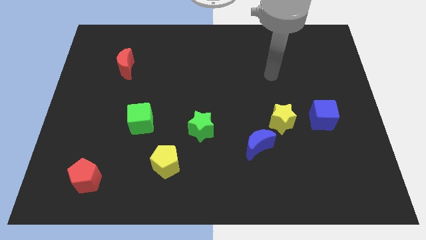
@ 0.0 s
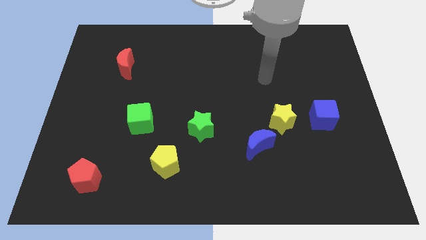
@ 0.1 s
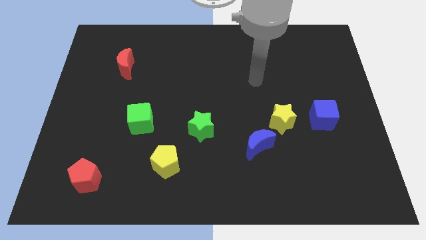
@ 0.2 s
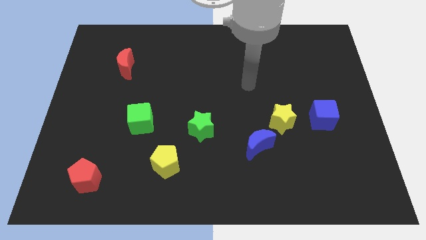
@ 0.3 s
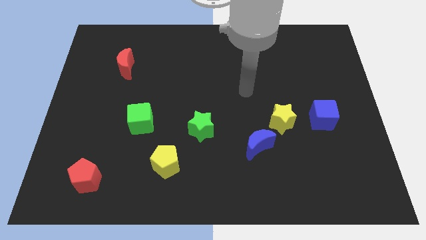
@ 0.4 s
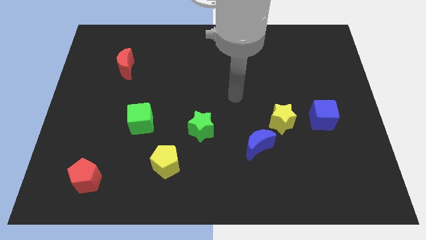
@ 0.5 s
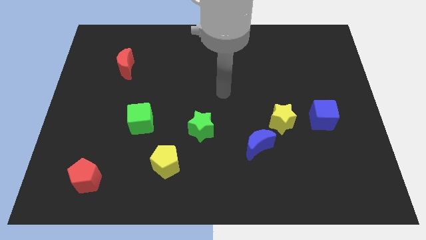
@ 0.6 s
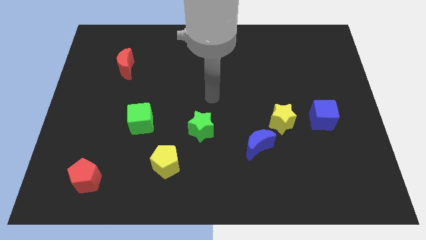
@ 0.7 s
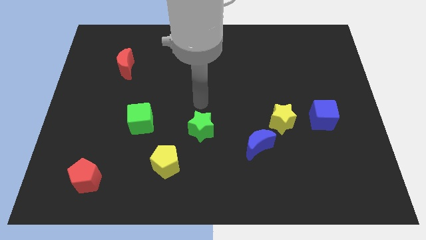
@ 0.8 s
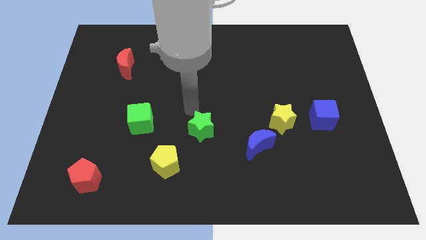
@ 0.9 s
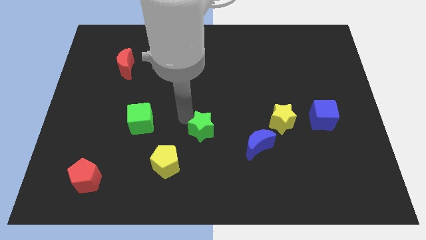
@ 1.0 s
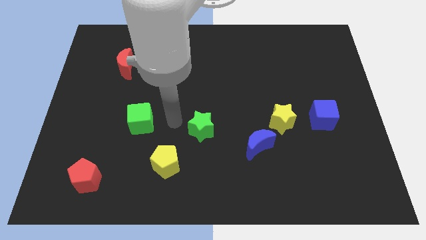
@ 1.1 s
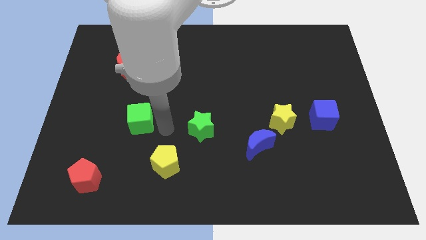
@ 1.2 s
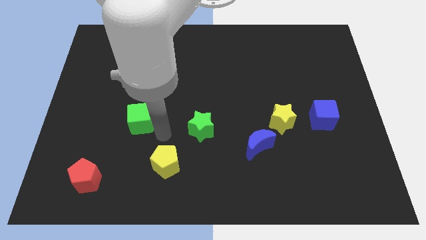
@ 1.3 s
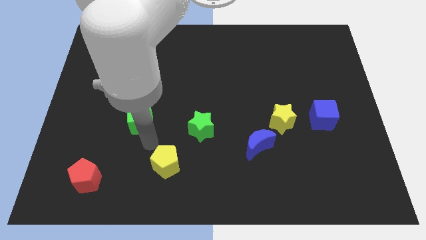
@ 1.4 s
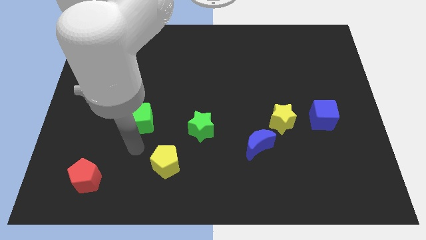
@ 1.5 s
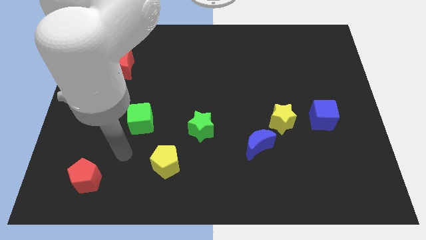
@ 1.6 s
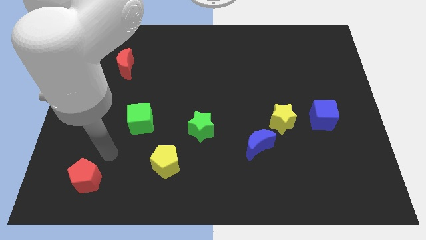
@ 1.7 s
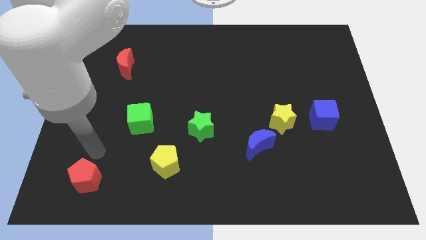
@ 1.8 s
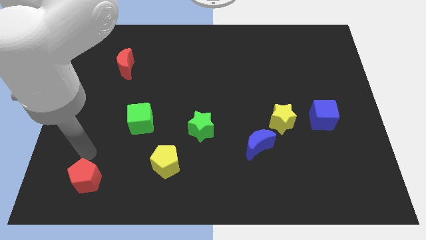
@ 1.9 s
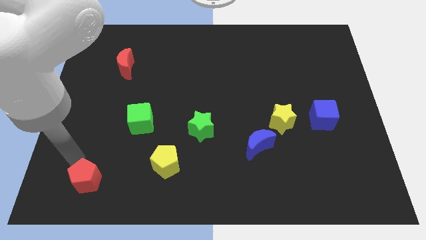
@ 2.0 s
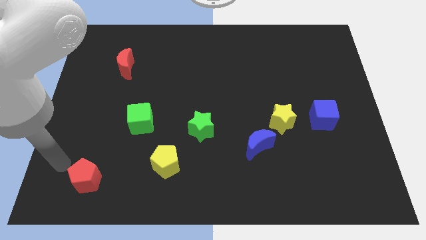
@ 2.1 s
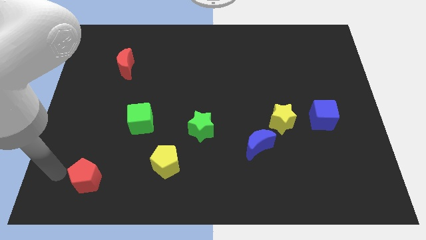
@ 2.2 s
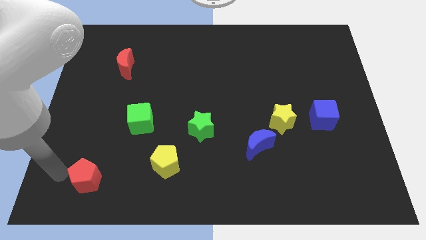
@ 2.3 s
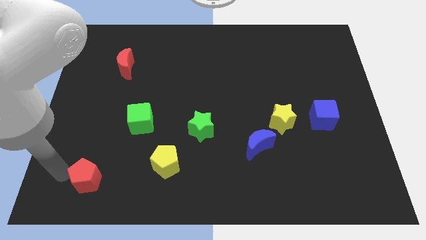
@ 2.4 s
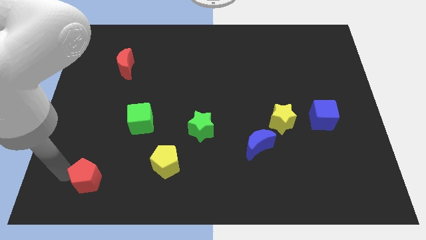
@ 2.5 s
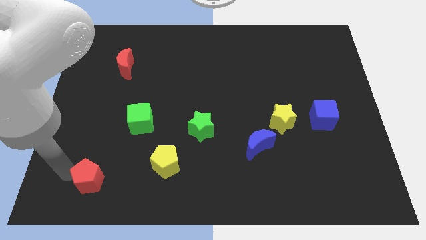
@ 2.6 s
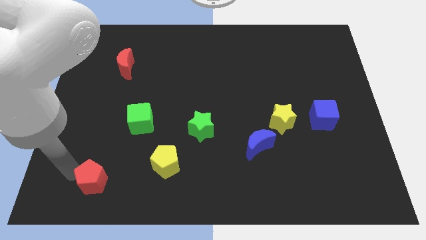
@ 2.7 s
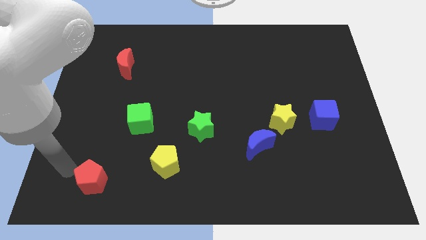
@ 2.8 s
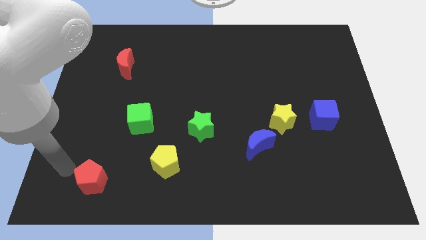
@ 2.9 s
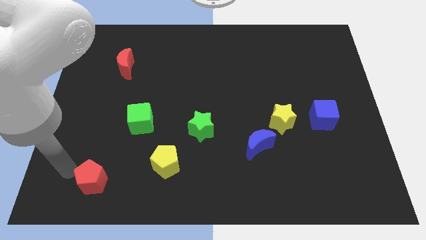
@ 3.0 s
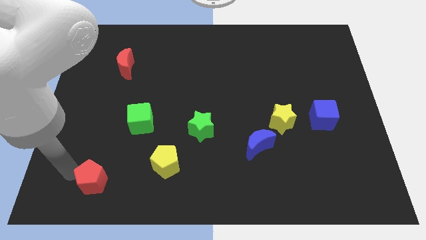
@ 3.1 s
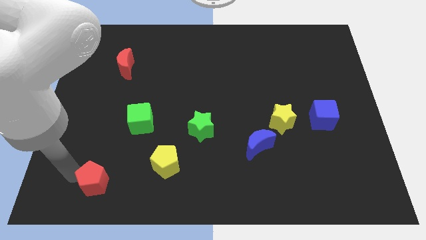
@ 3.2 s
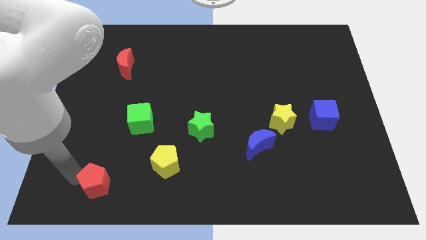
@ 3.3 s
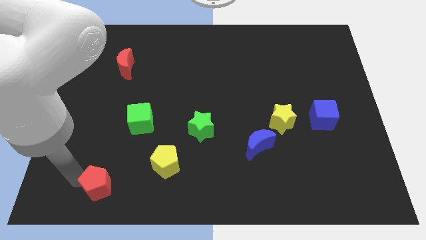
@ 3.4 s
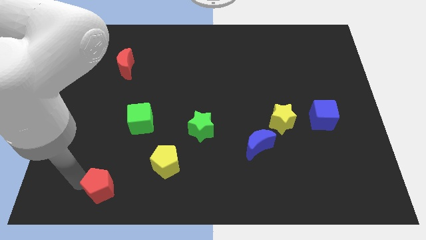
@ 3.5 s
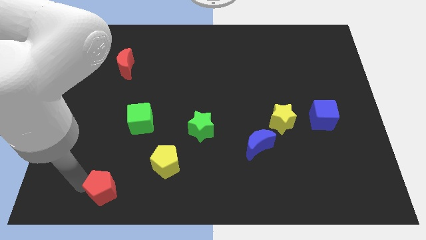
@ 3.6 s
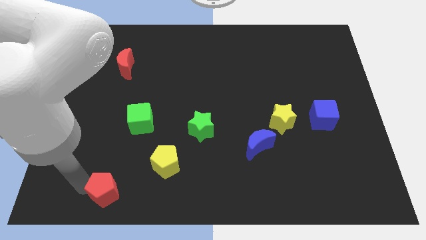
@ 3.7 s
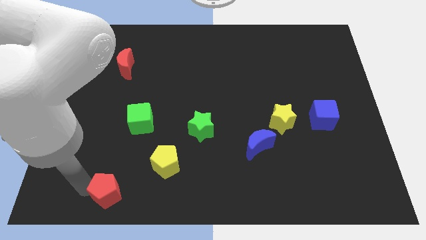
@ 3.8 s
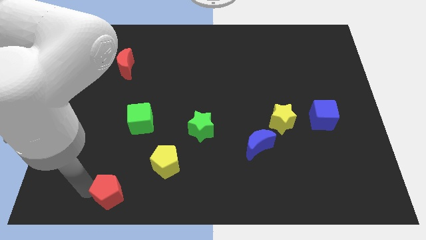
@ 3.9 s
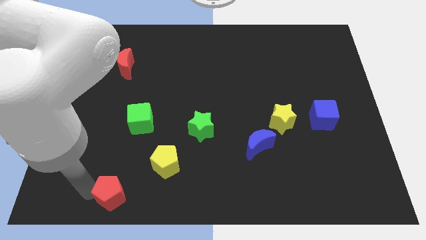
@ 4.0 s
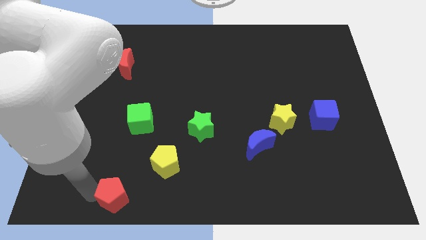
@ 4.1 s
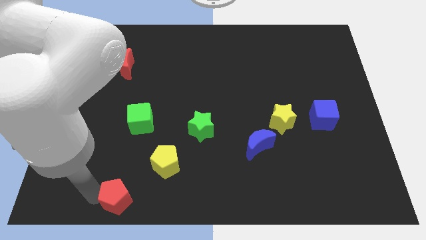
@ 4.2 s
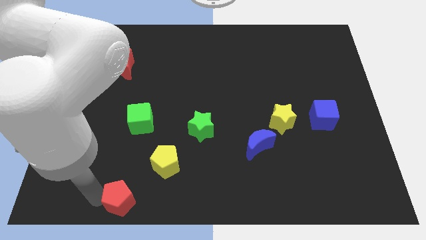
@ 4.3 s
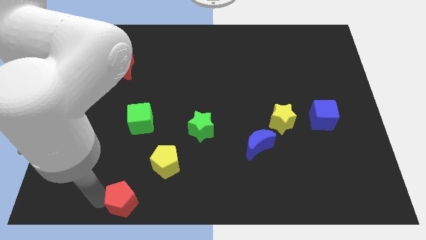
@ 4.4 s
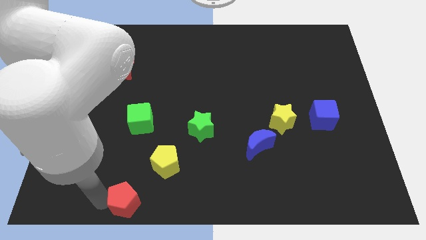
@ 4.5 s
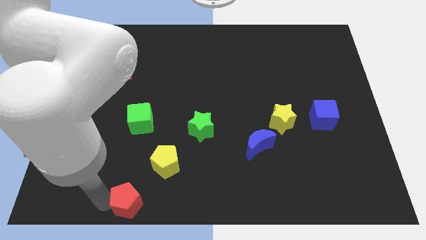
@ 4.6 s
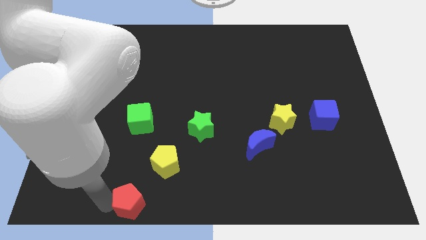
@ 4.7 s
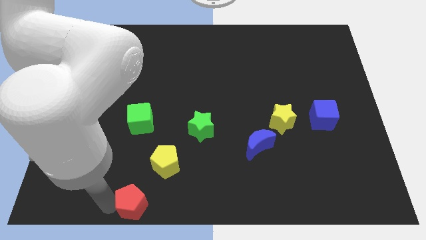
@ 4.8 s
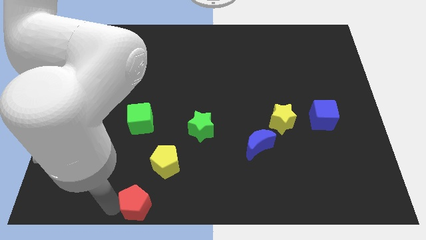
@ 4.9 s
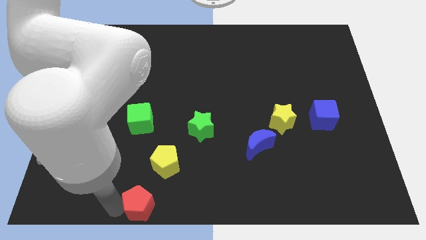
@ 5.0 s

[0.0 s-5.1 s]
slide the red pentagon to the bottom

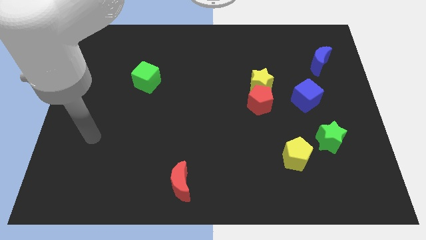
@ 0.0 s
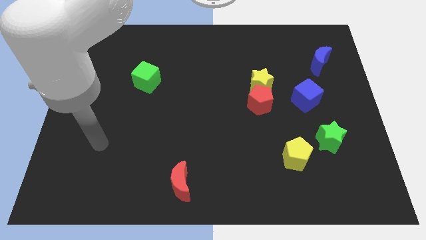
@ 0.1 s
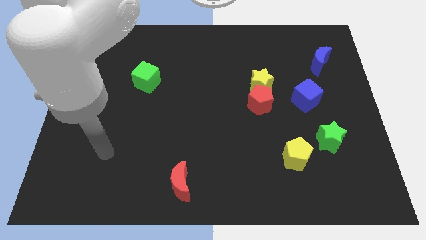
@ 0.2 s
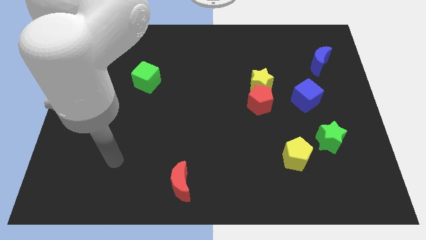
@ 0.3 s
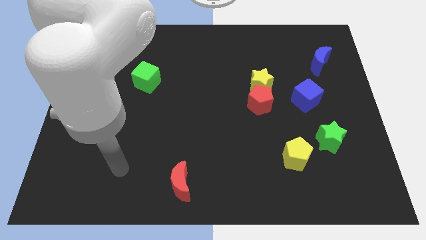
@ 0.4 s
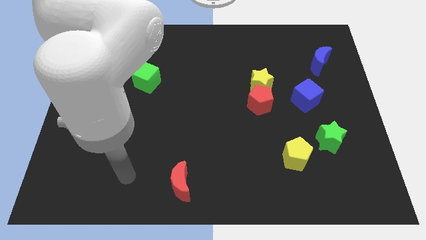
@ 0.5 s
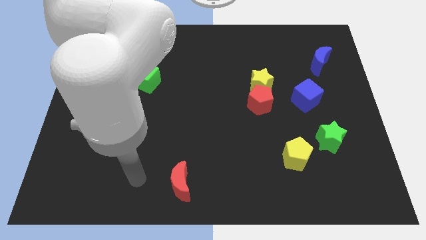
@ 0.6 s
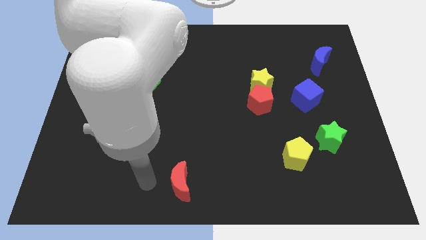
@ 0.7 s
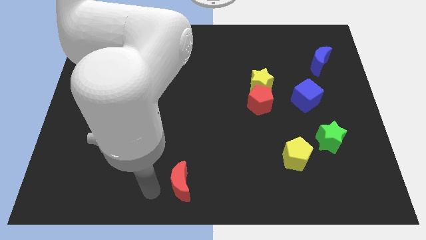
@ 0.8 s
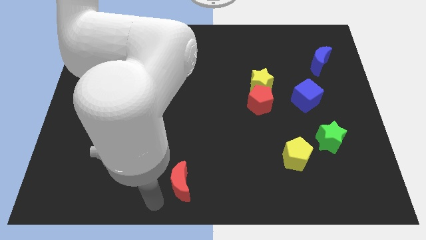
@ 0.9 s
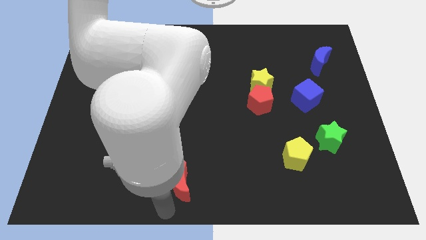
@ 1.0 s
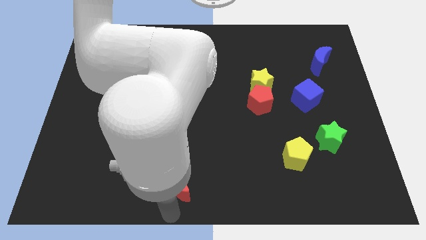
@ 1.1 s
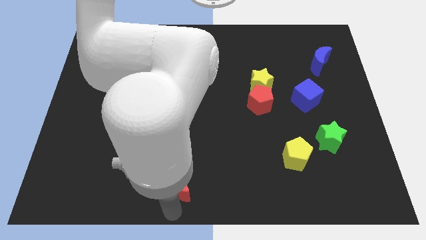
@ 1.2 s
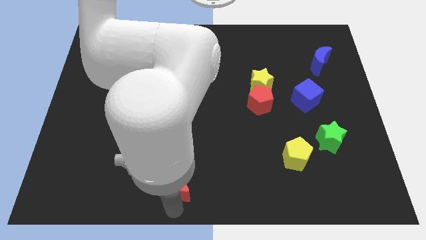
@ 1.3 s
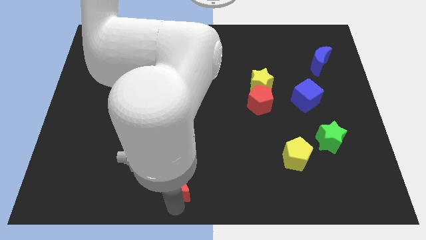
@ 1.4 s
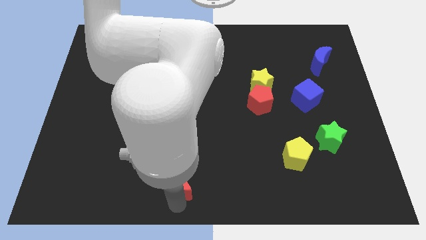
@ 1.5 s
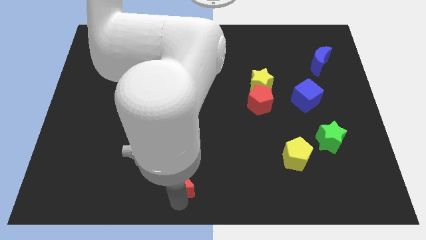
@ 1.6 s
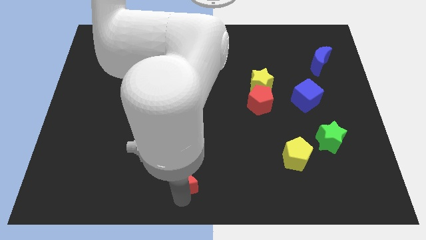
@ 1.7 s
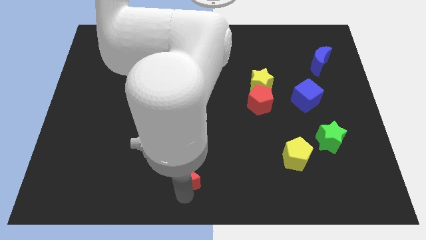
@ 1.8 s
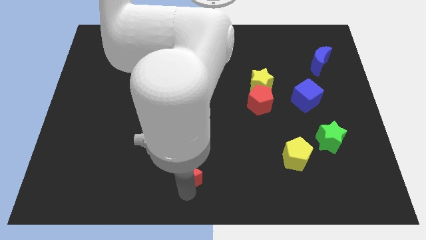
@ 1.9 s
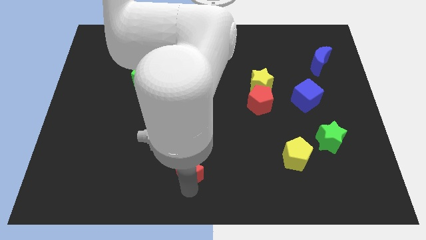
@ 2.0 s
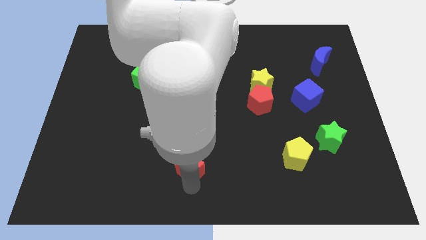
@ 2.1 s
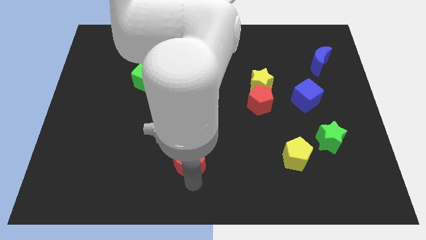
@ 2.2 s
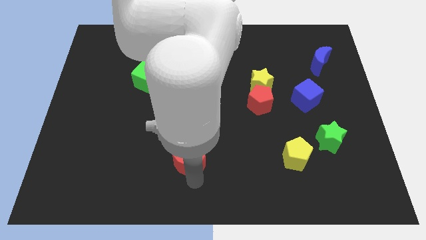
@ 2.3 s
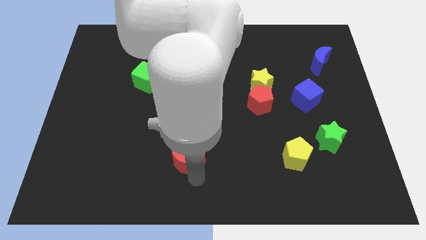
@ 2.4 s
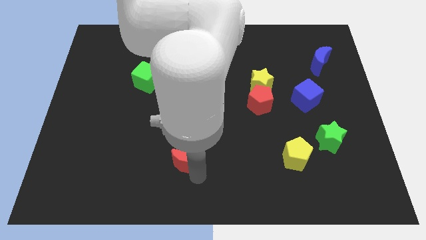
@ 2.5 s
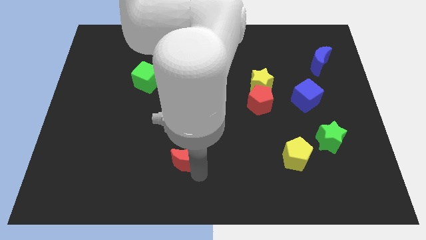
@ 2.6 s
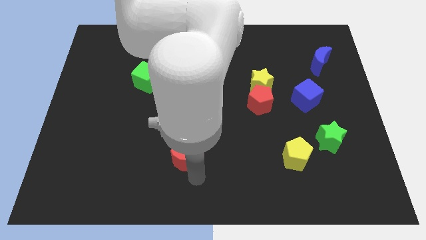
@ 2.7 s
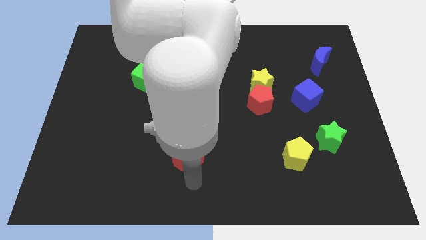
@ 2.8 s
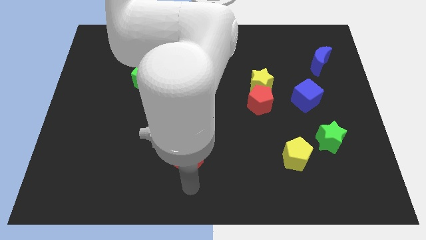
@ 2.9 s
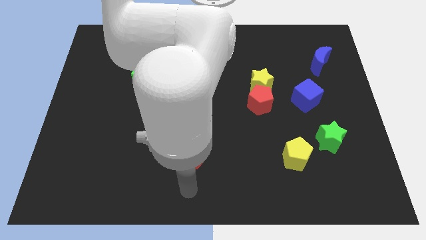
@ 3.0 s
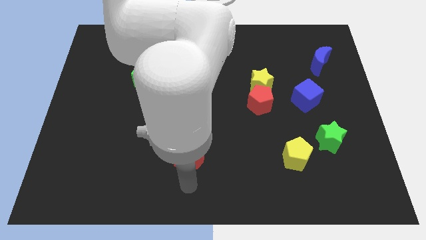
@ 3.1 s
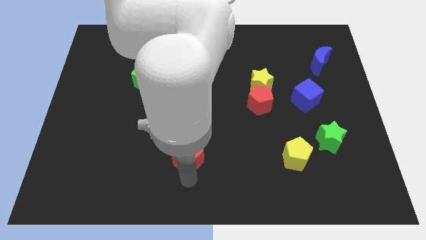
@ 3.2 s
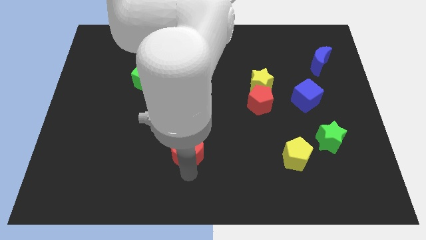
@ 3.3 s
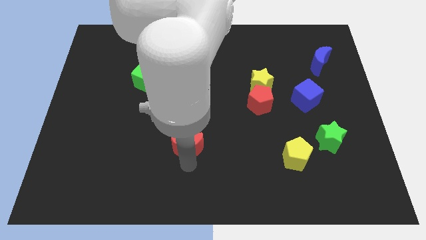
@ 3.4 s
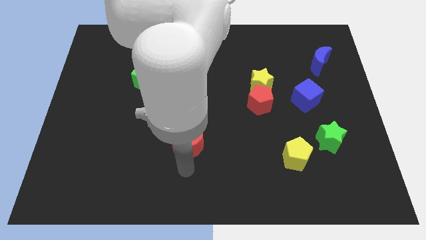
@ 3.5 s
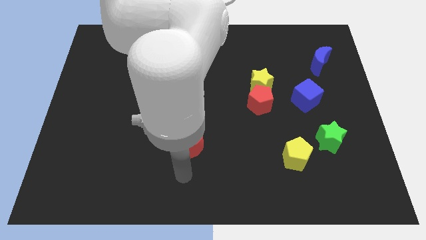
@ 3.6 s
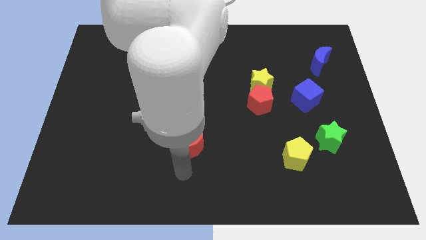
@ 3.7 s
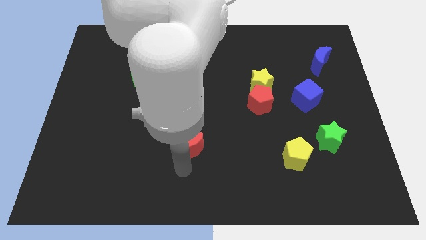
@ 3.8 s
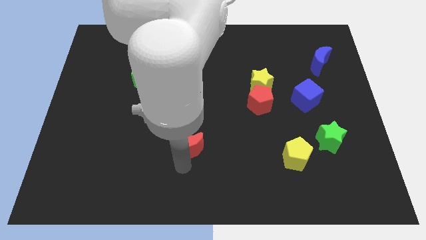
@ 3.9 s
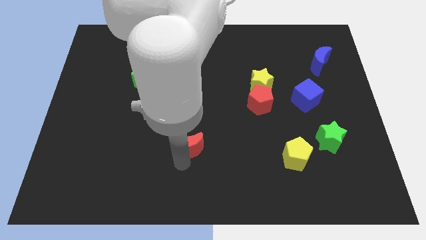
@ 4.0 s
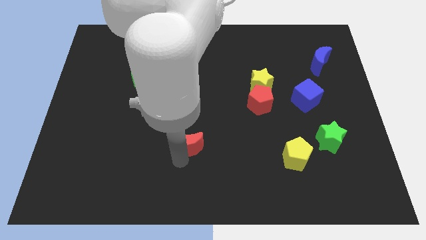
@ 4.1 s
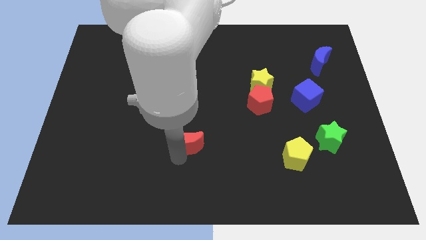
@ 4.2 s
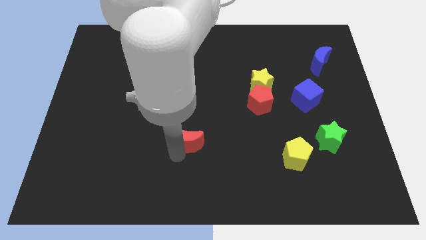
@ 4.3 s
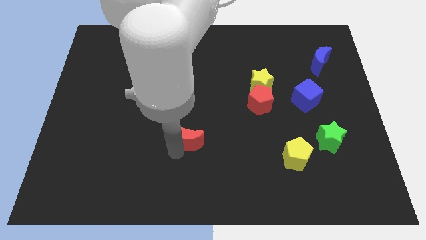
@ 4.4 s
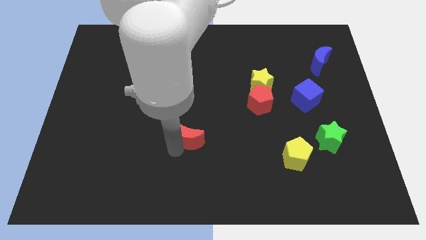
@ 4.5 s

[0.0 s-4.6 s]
put the red moon to the center
